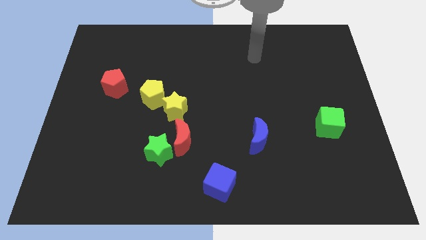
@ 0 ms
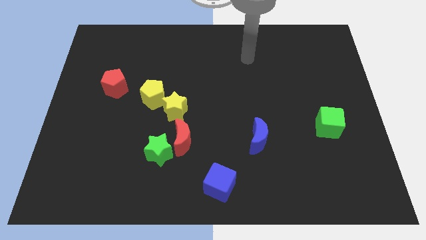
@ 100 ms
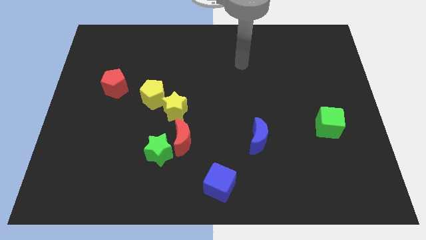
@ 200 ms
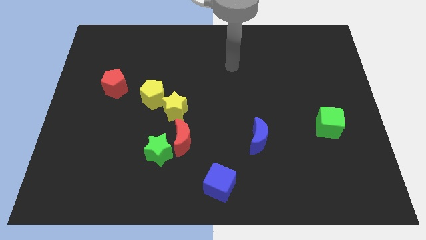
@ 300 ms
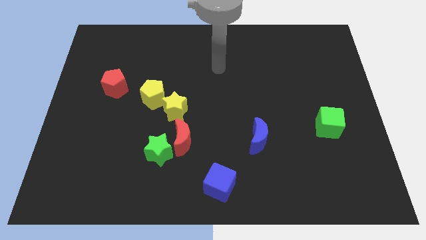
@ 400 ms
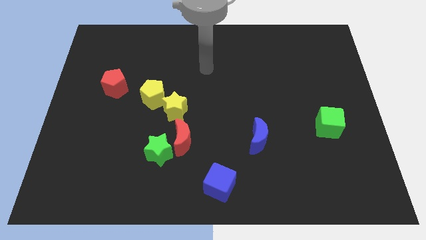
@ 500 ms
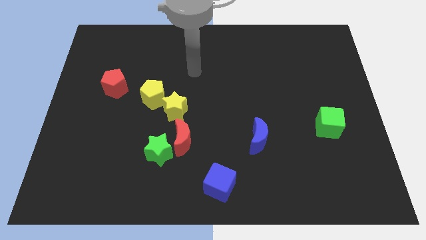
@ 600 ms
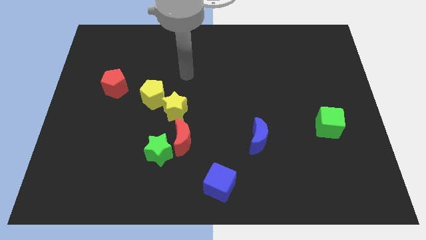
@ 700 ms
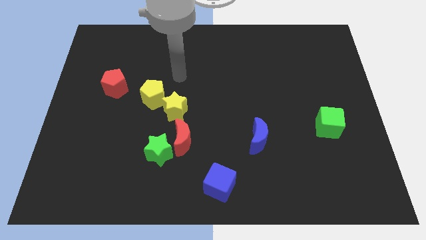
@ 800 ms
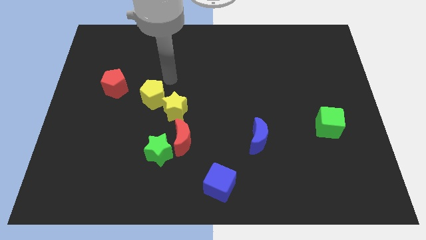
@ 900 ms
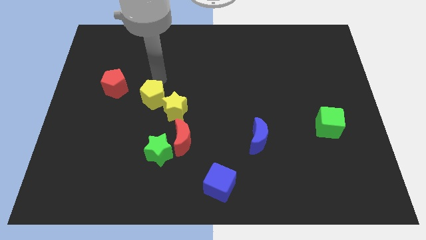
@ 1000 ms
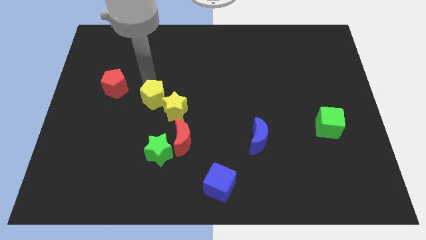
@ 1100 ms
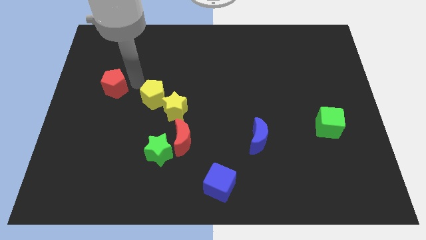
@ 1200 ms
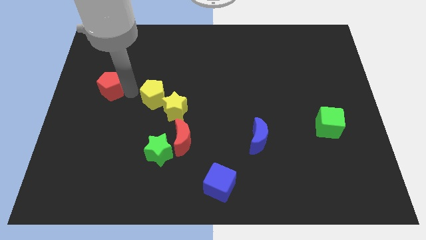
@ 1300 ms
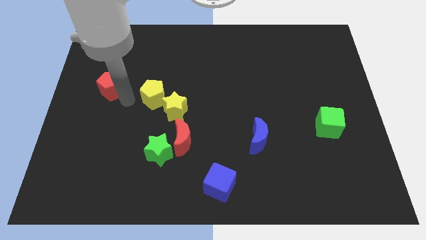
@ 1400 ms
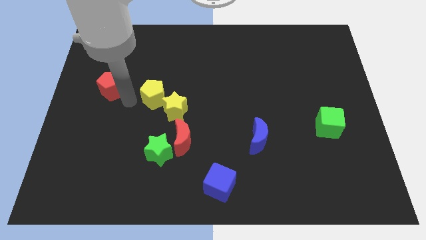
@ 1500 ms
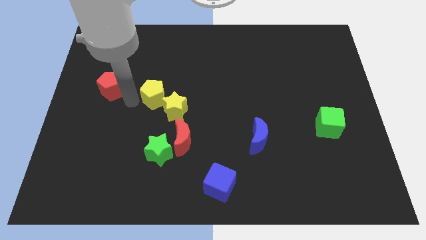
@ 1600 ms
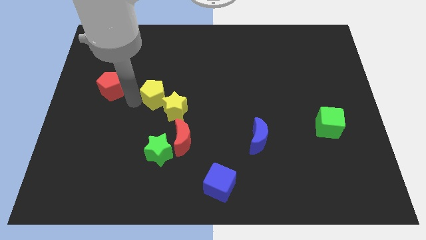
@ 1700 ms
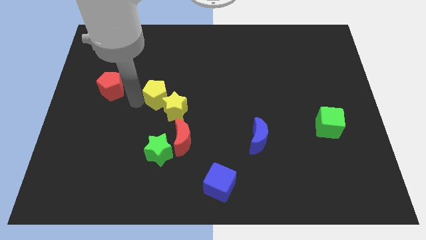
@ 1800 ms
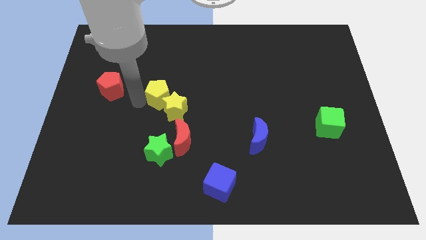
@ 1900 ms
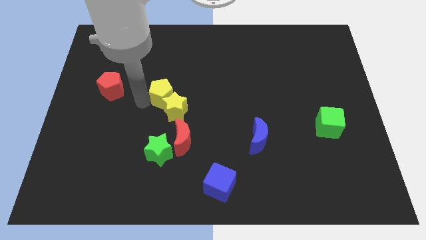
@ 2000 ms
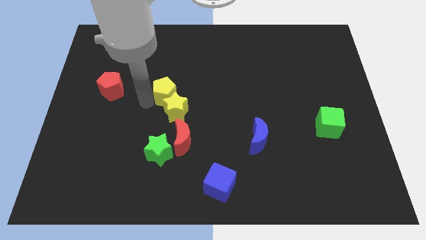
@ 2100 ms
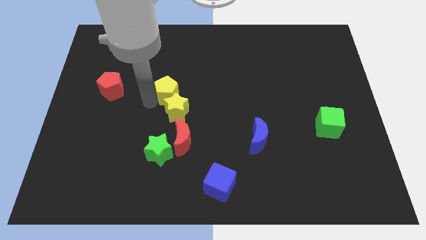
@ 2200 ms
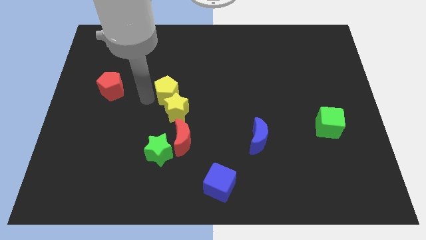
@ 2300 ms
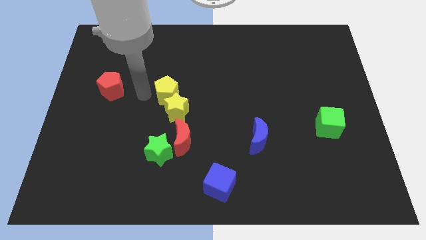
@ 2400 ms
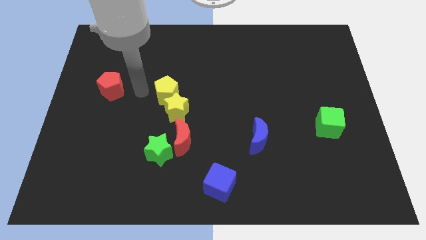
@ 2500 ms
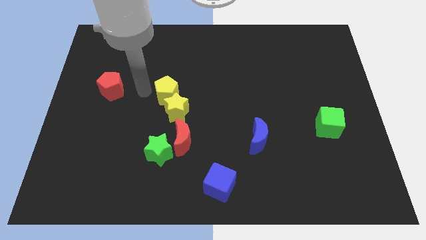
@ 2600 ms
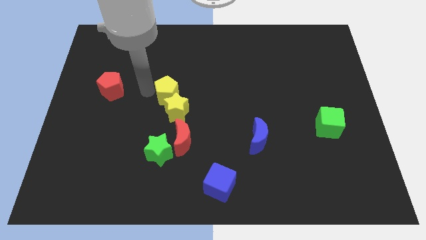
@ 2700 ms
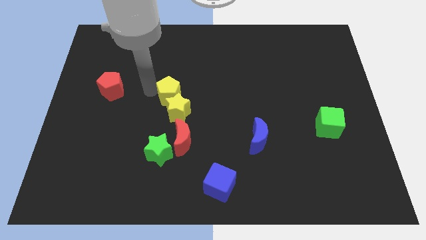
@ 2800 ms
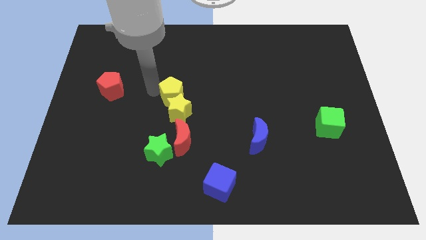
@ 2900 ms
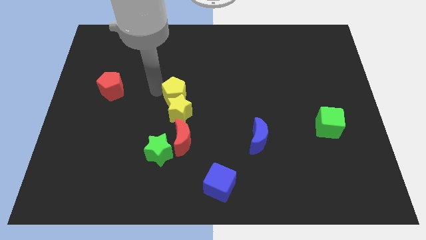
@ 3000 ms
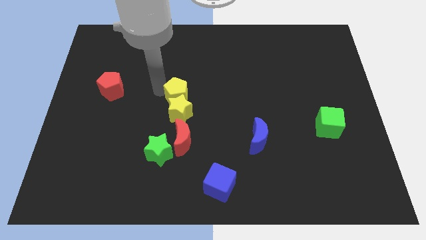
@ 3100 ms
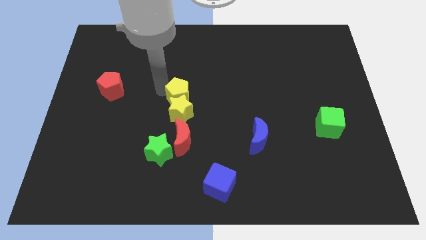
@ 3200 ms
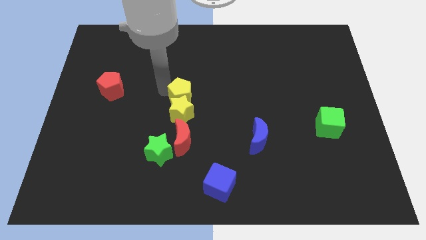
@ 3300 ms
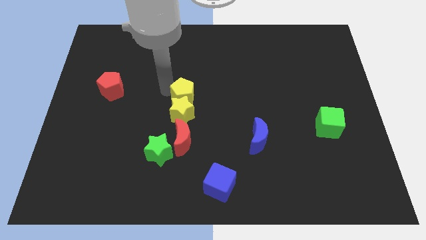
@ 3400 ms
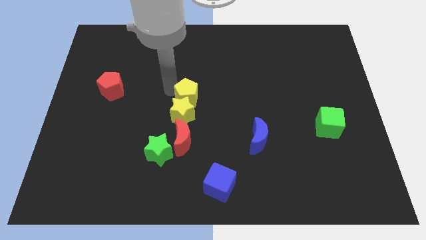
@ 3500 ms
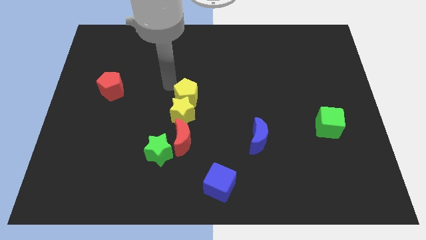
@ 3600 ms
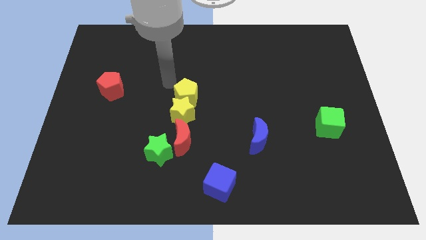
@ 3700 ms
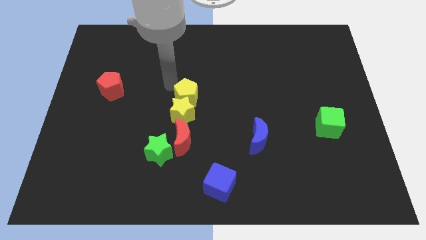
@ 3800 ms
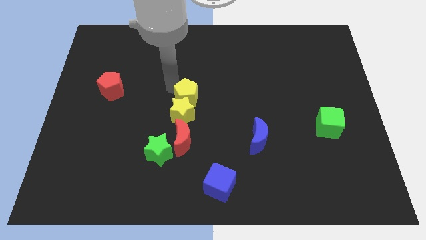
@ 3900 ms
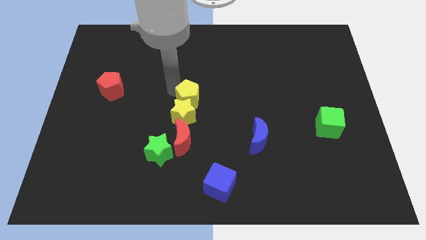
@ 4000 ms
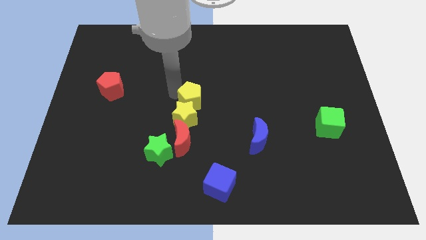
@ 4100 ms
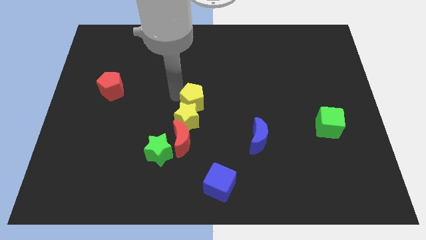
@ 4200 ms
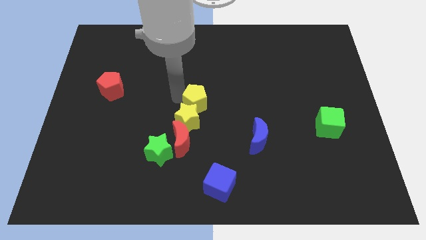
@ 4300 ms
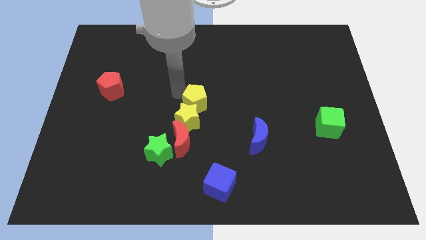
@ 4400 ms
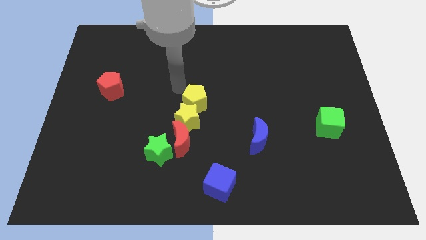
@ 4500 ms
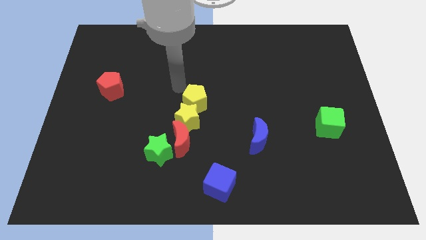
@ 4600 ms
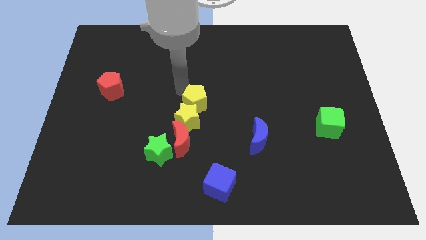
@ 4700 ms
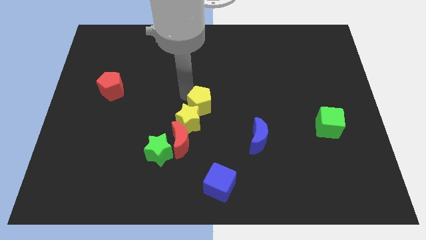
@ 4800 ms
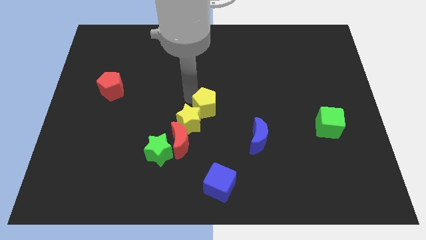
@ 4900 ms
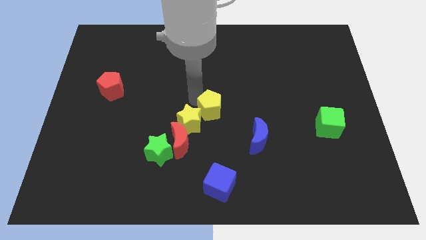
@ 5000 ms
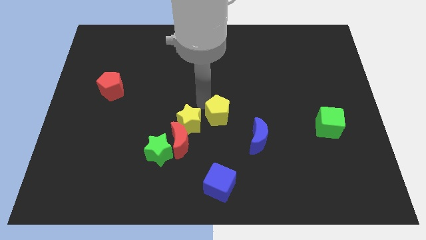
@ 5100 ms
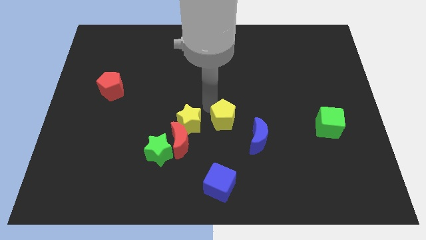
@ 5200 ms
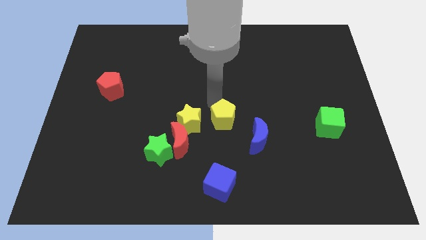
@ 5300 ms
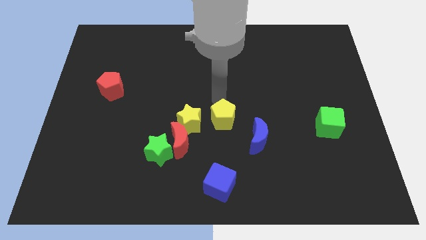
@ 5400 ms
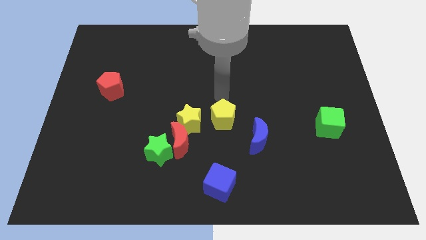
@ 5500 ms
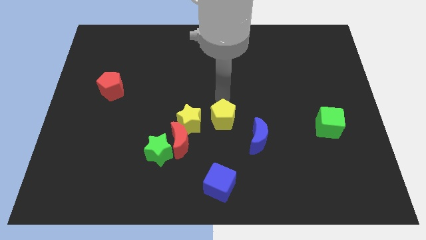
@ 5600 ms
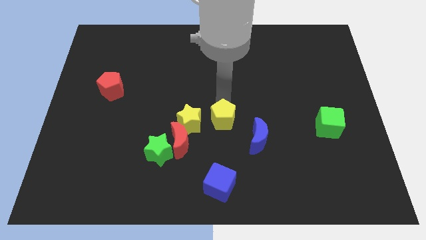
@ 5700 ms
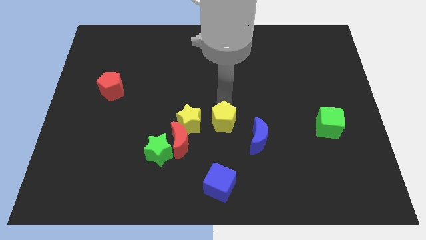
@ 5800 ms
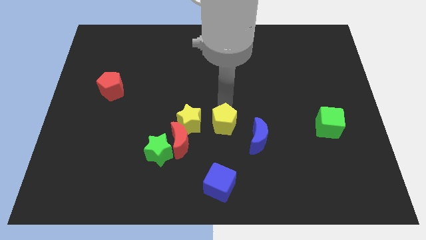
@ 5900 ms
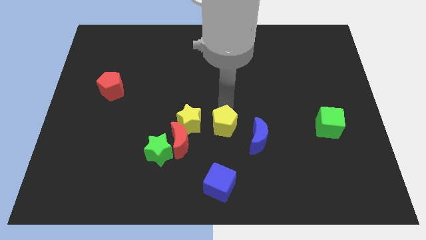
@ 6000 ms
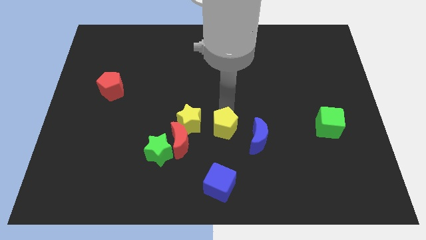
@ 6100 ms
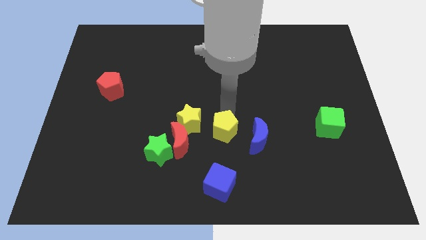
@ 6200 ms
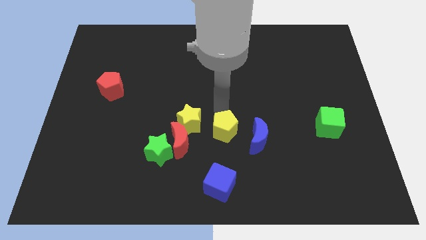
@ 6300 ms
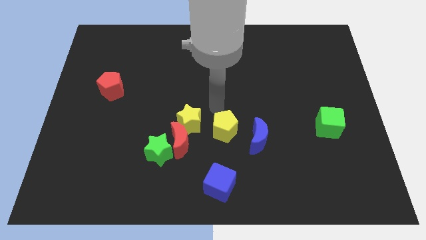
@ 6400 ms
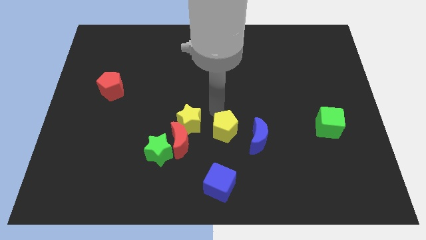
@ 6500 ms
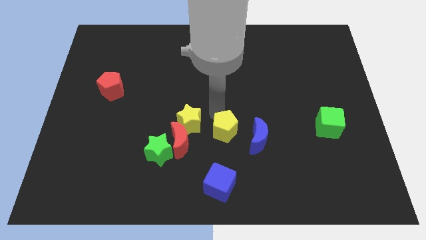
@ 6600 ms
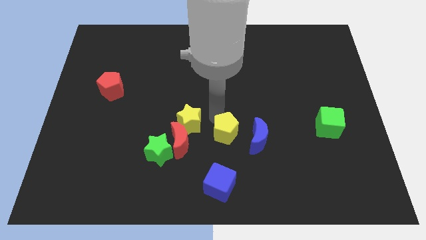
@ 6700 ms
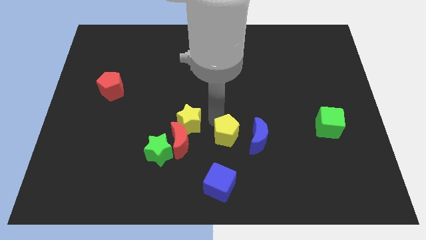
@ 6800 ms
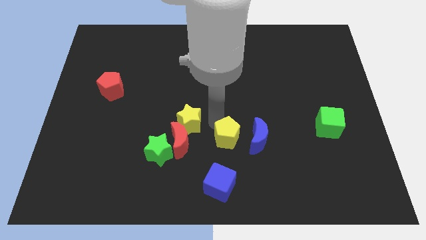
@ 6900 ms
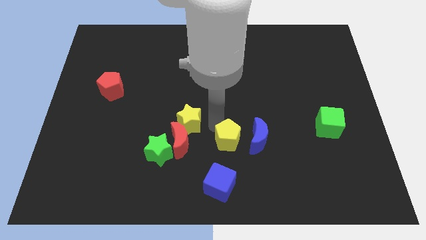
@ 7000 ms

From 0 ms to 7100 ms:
push the yellow pentagon downwards and to the right

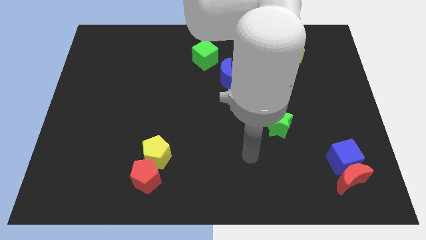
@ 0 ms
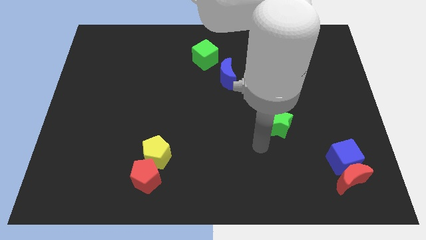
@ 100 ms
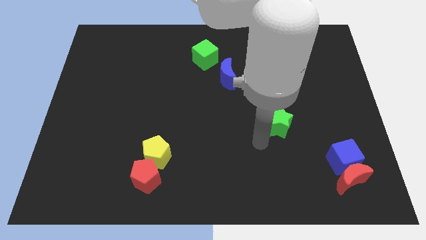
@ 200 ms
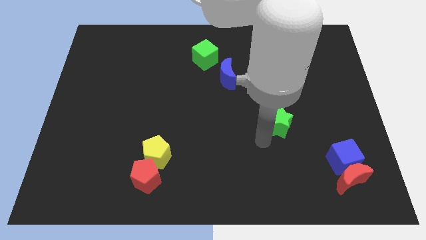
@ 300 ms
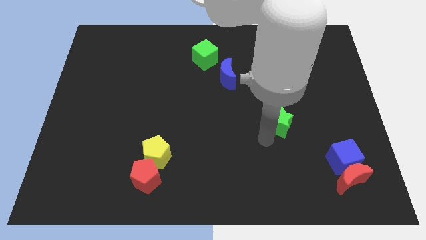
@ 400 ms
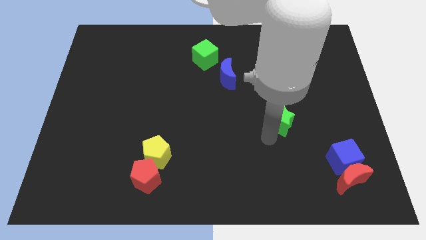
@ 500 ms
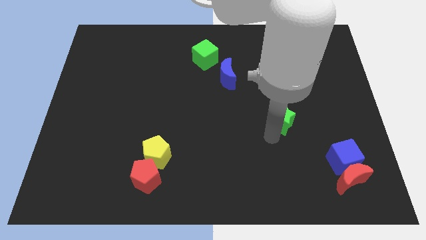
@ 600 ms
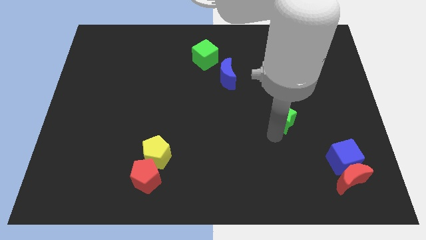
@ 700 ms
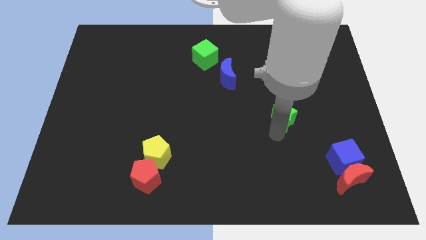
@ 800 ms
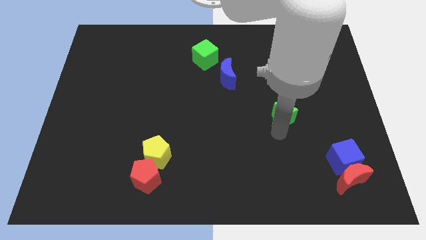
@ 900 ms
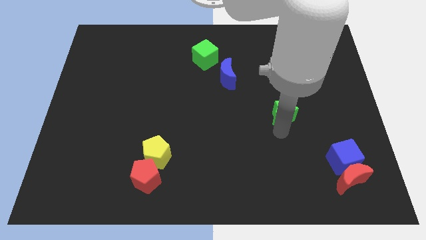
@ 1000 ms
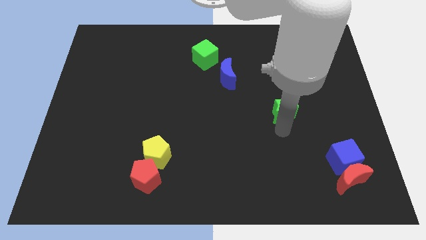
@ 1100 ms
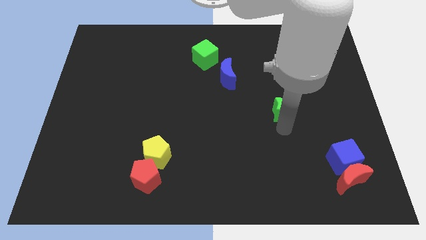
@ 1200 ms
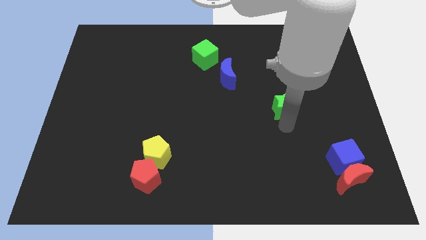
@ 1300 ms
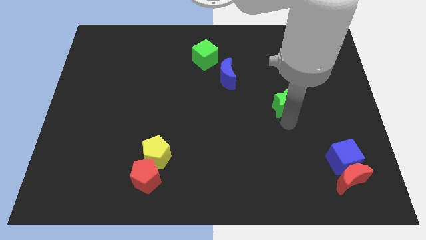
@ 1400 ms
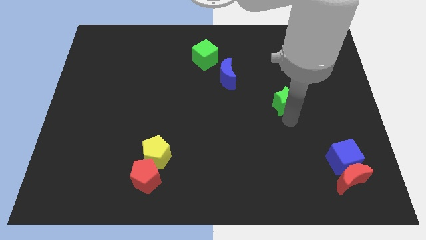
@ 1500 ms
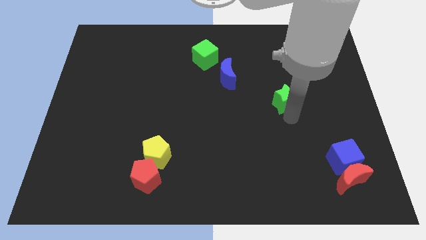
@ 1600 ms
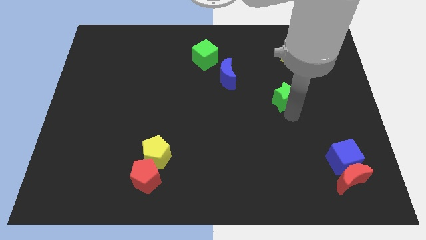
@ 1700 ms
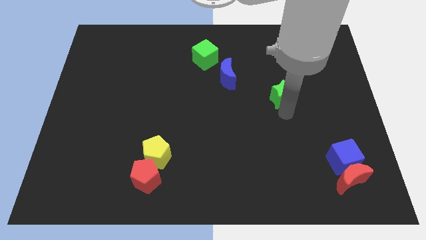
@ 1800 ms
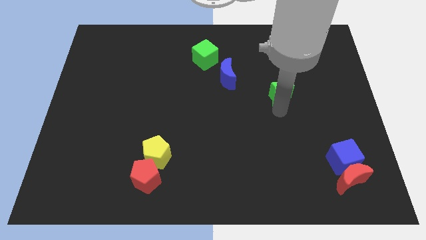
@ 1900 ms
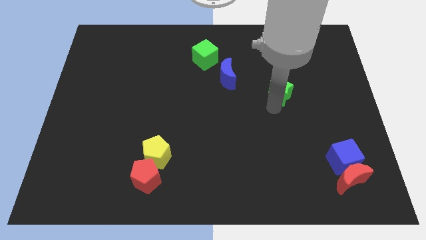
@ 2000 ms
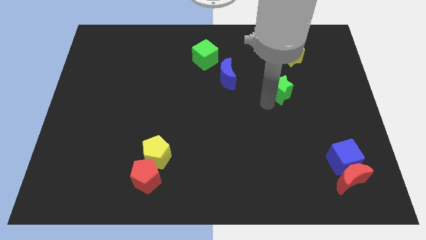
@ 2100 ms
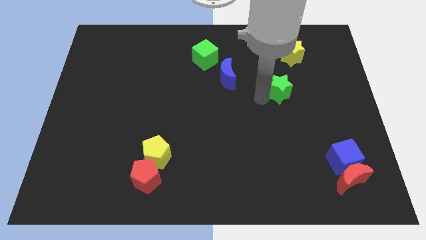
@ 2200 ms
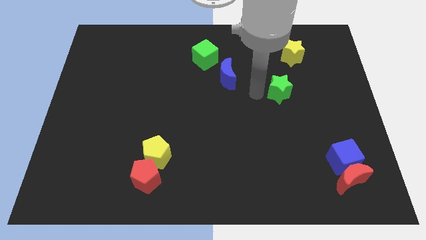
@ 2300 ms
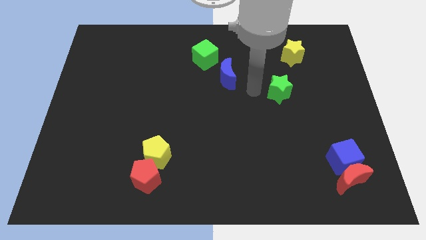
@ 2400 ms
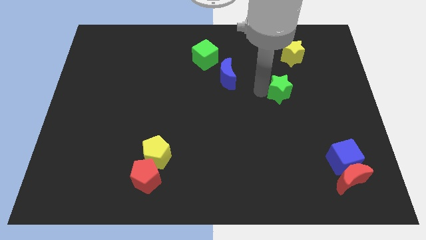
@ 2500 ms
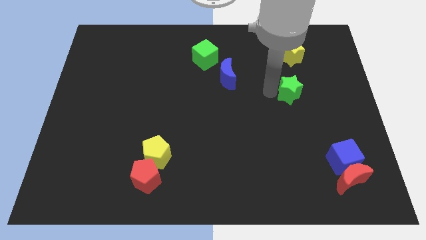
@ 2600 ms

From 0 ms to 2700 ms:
push the green star slightly up and then to the right
